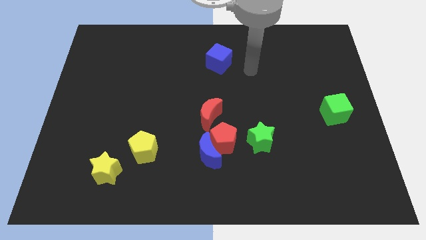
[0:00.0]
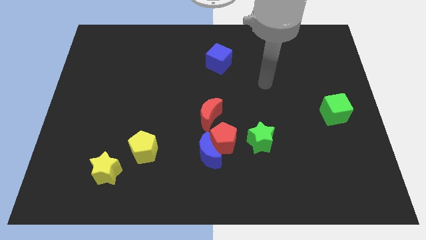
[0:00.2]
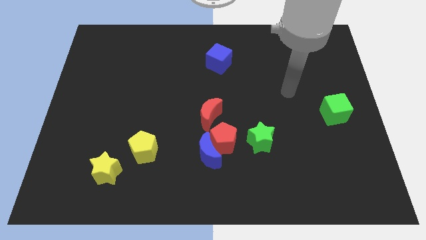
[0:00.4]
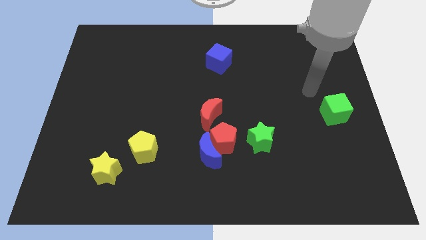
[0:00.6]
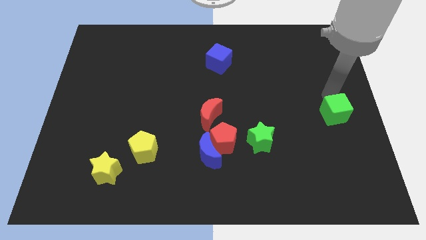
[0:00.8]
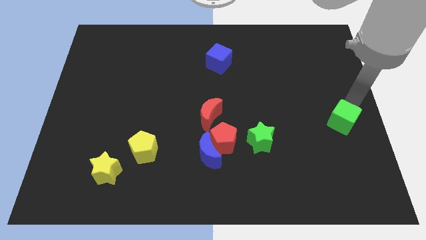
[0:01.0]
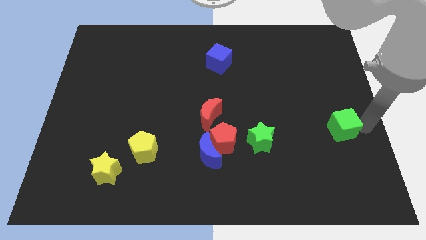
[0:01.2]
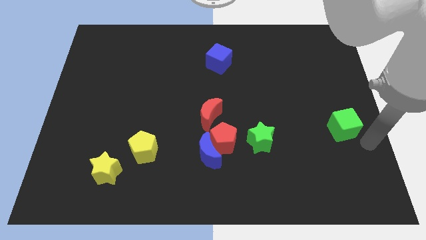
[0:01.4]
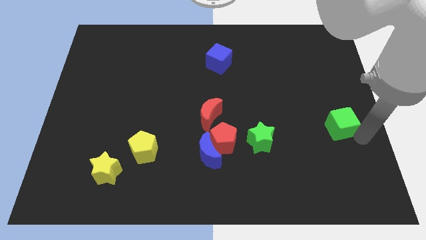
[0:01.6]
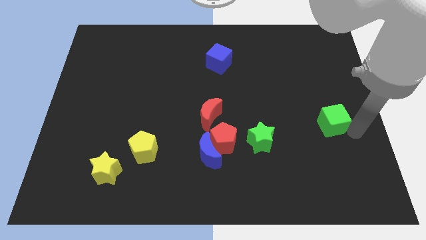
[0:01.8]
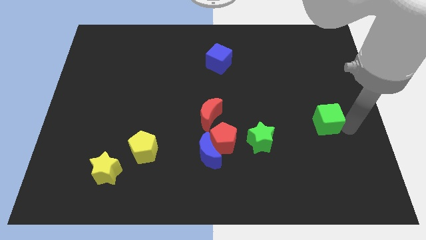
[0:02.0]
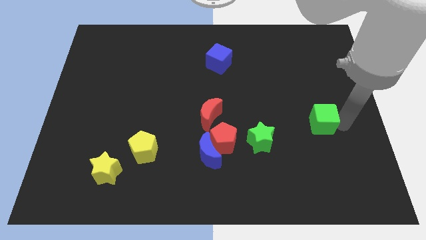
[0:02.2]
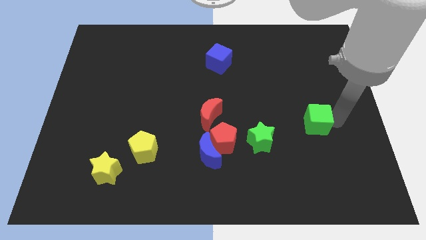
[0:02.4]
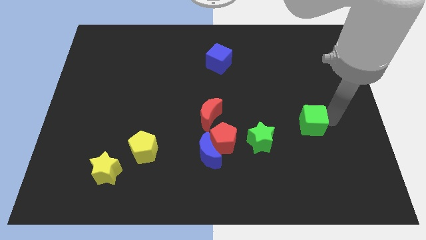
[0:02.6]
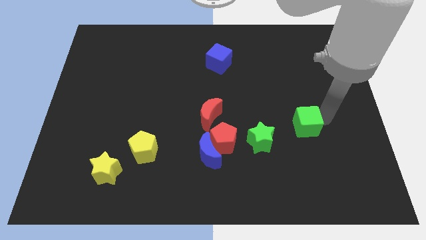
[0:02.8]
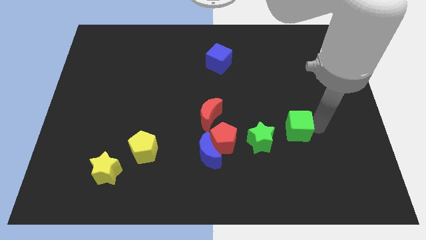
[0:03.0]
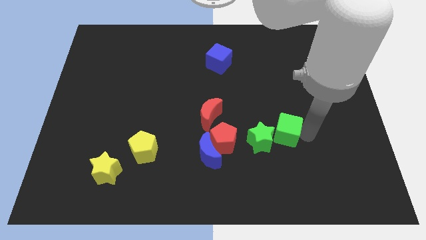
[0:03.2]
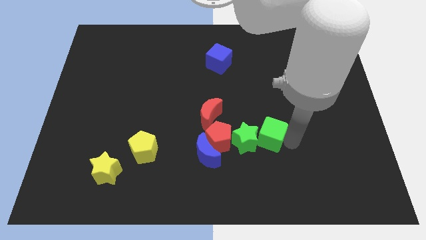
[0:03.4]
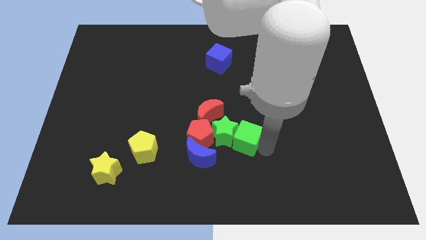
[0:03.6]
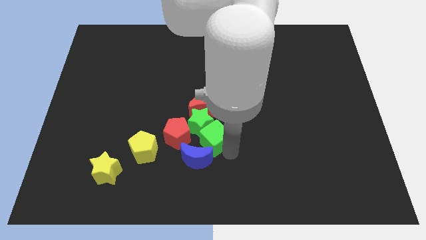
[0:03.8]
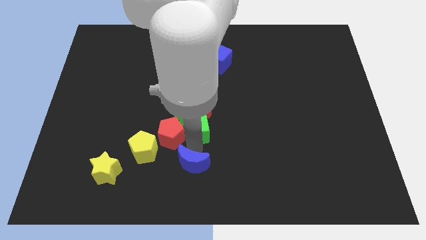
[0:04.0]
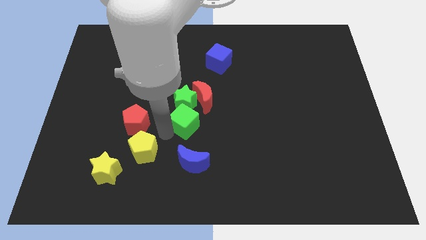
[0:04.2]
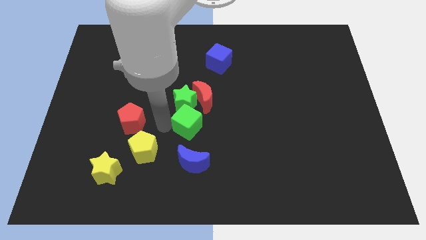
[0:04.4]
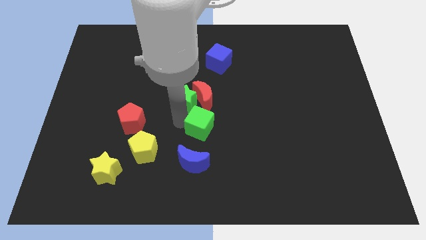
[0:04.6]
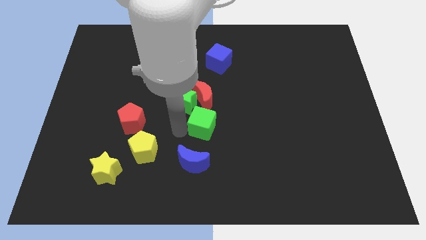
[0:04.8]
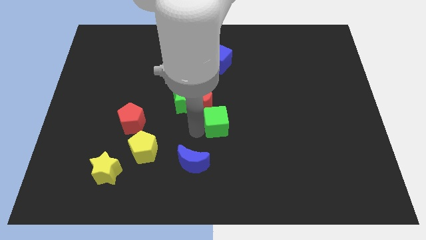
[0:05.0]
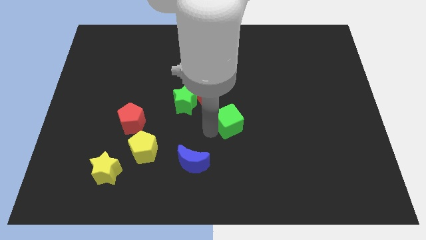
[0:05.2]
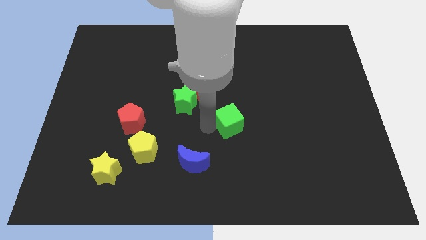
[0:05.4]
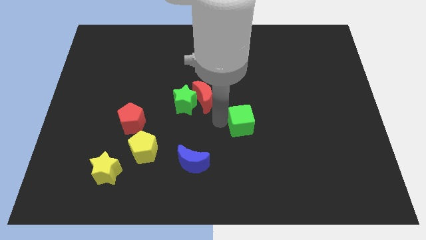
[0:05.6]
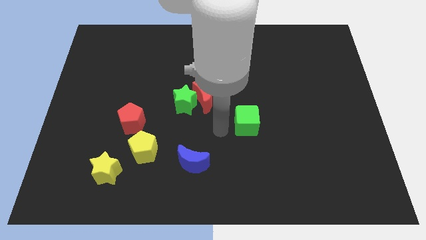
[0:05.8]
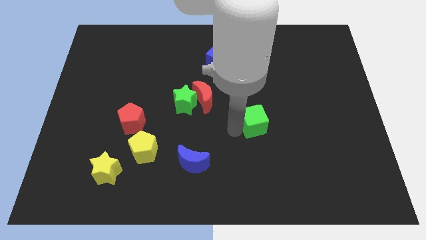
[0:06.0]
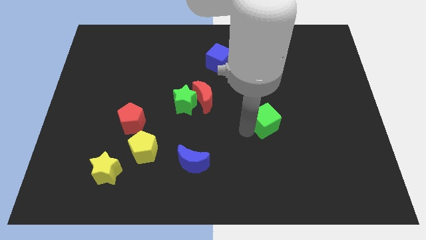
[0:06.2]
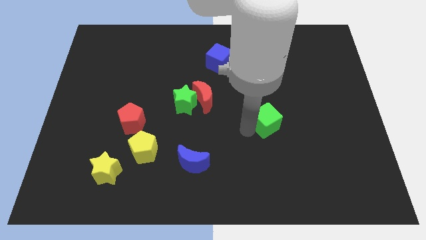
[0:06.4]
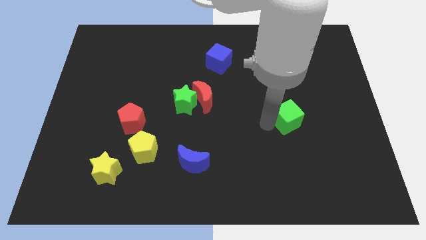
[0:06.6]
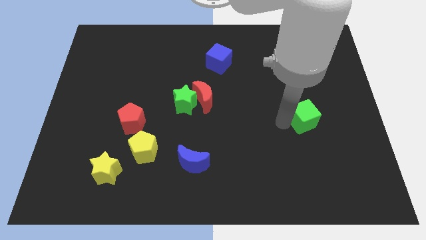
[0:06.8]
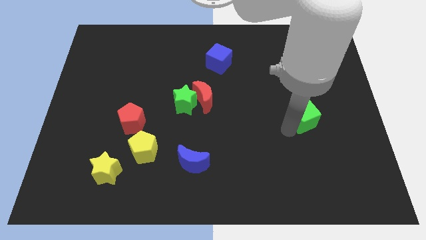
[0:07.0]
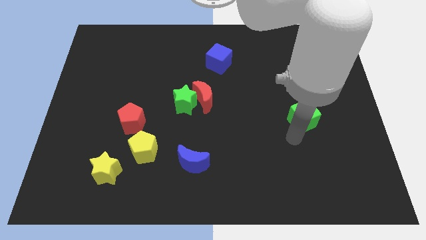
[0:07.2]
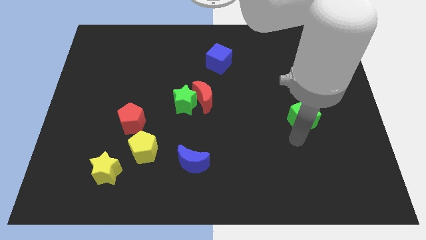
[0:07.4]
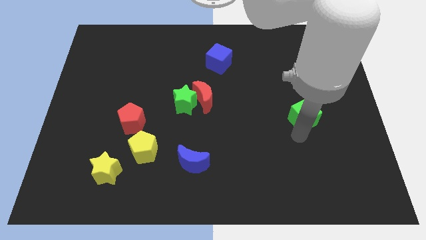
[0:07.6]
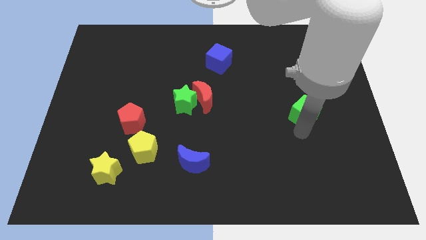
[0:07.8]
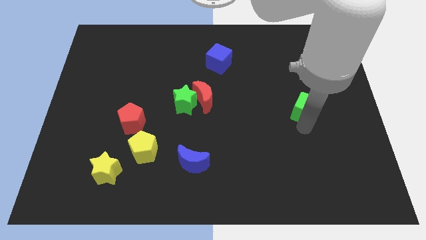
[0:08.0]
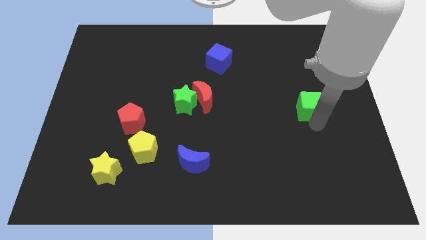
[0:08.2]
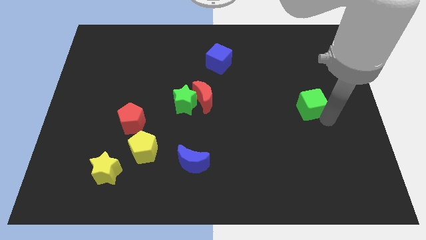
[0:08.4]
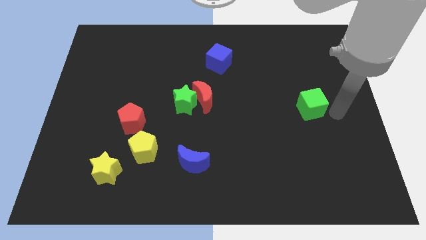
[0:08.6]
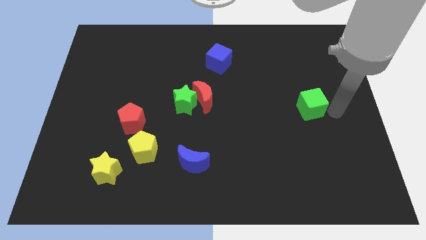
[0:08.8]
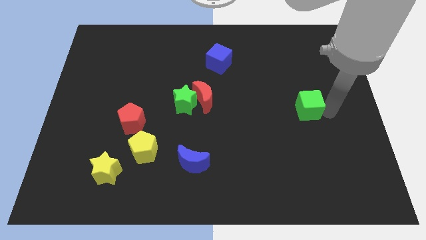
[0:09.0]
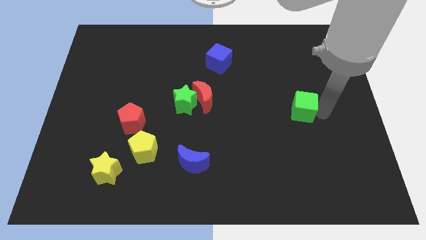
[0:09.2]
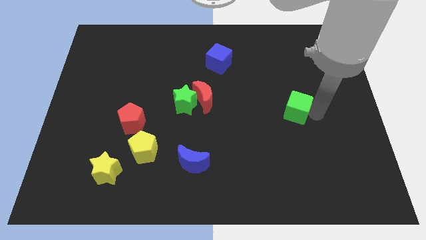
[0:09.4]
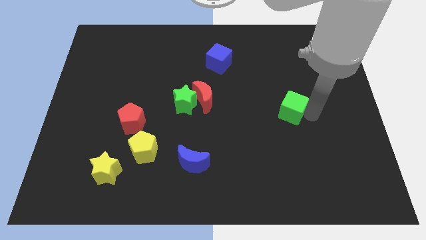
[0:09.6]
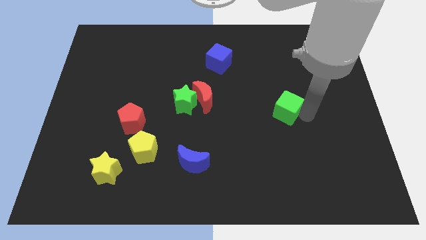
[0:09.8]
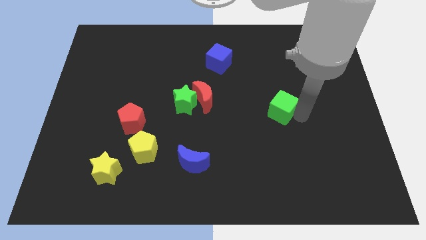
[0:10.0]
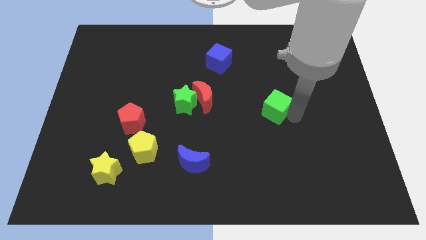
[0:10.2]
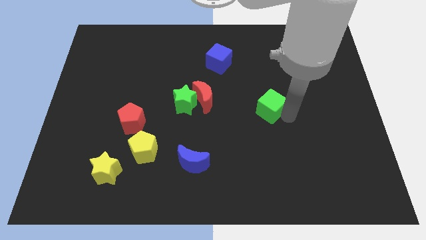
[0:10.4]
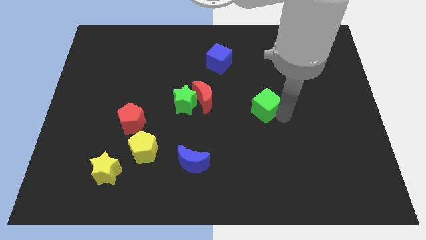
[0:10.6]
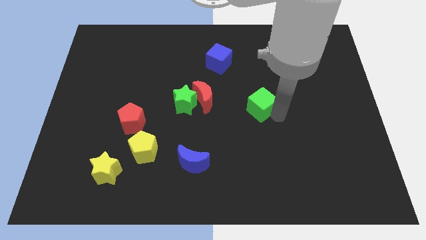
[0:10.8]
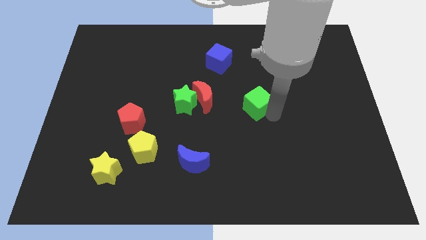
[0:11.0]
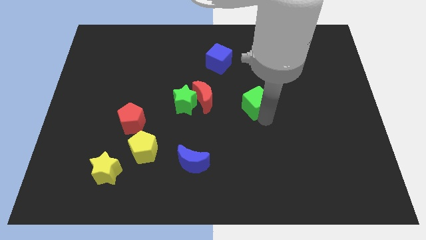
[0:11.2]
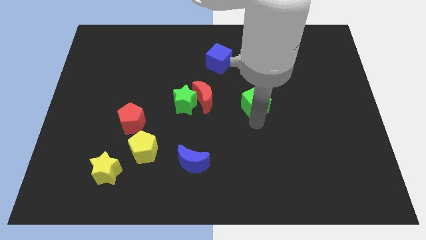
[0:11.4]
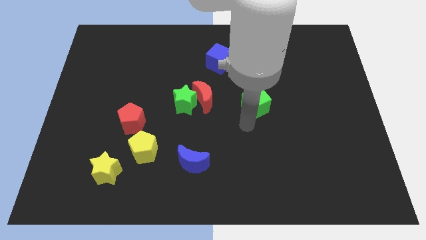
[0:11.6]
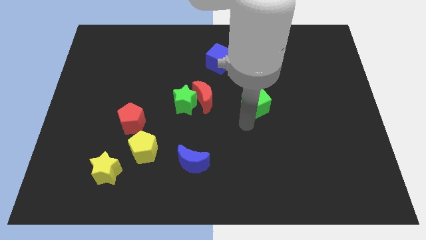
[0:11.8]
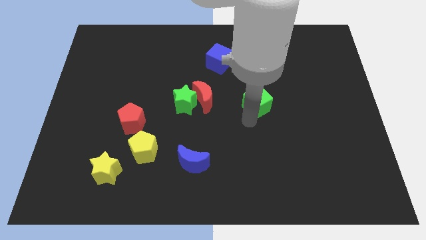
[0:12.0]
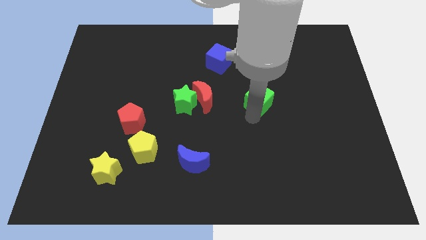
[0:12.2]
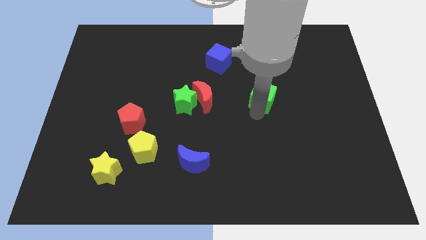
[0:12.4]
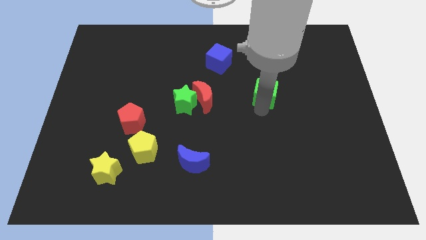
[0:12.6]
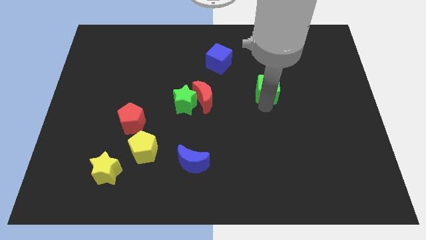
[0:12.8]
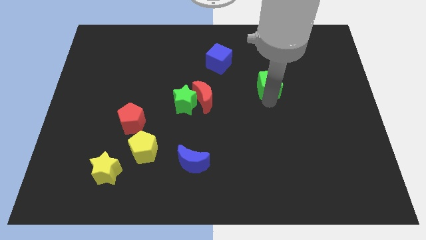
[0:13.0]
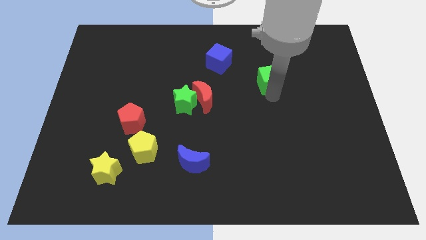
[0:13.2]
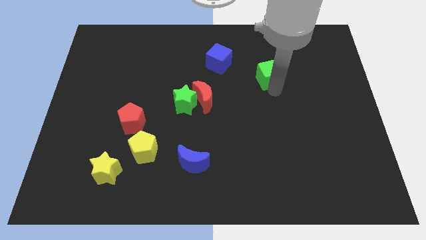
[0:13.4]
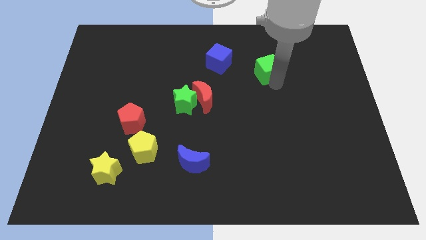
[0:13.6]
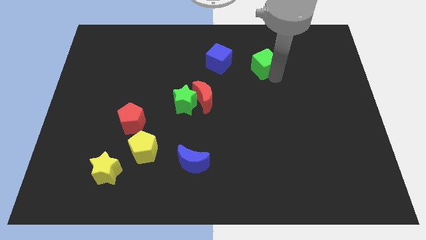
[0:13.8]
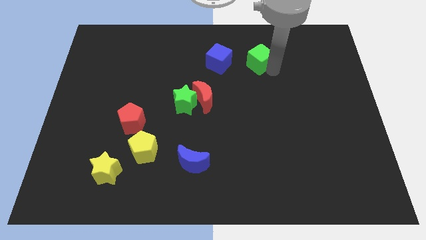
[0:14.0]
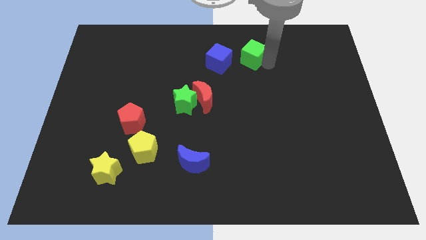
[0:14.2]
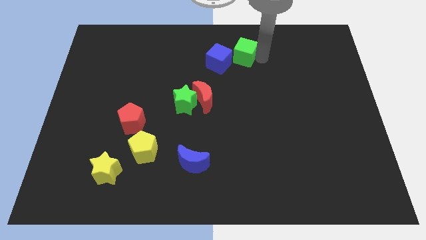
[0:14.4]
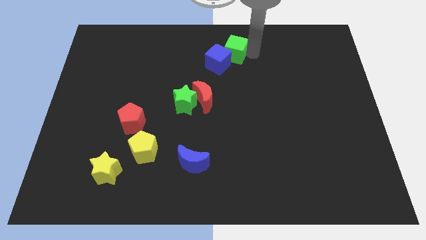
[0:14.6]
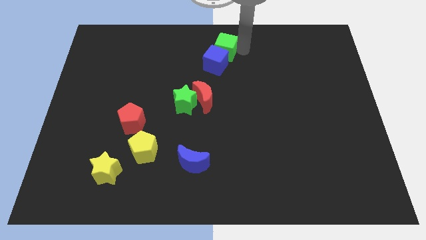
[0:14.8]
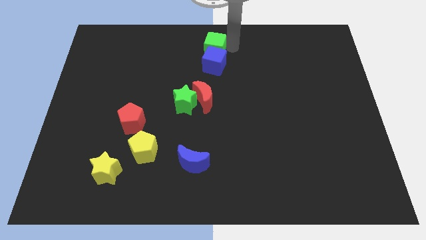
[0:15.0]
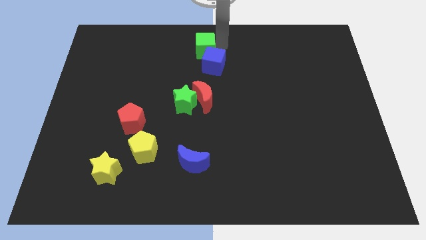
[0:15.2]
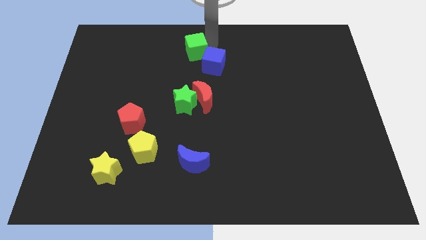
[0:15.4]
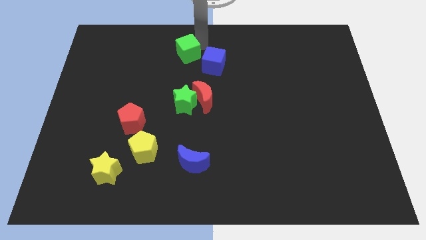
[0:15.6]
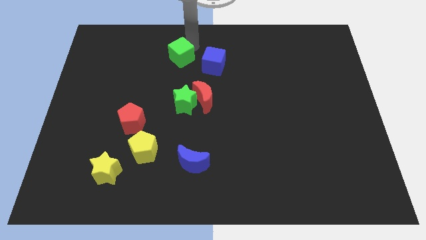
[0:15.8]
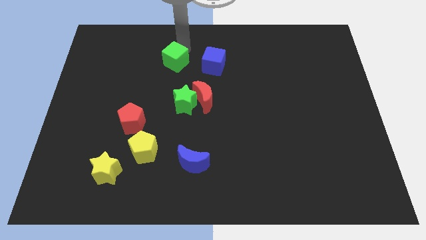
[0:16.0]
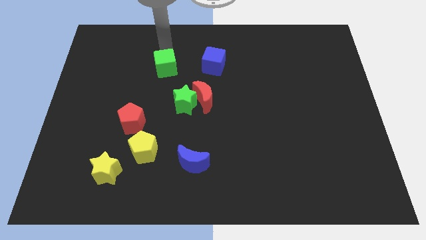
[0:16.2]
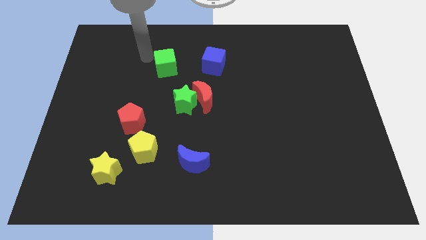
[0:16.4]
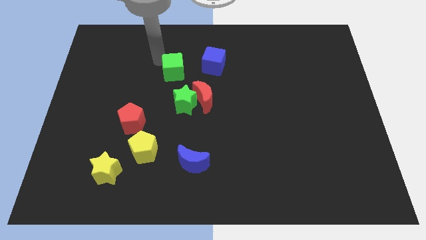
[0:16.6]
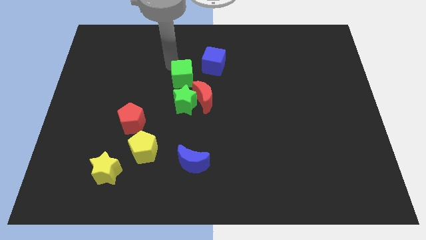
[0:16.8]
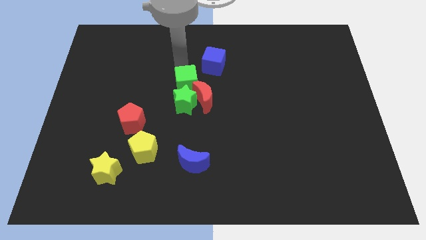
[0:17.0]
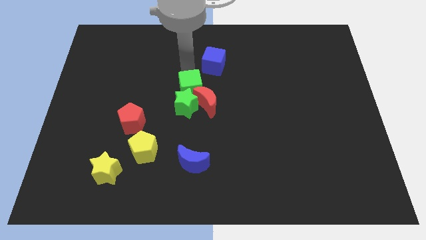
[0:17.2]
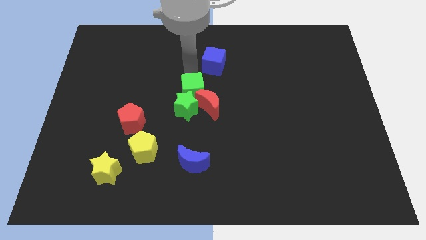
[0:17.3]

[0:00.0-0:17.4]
put the green cube to the bottom of the blue cube
